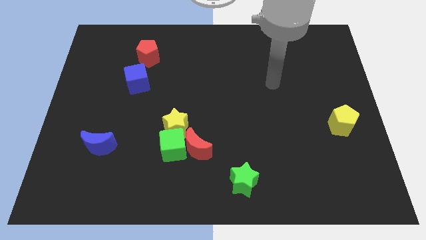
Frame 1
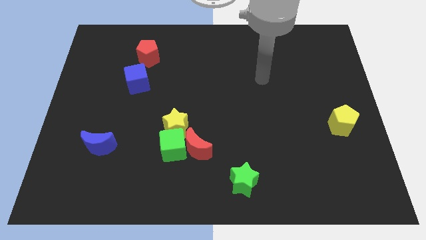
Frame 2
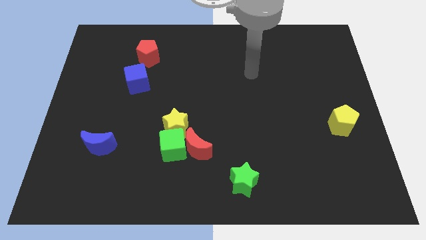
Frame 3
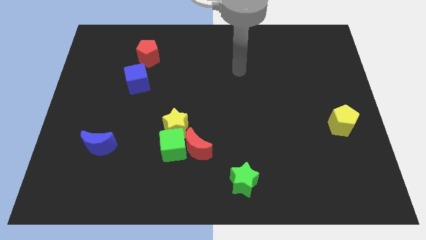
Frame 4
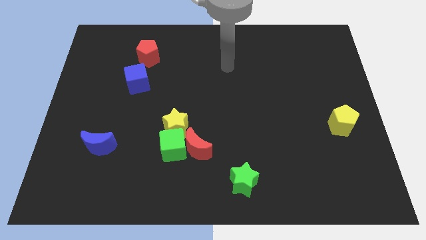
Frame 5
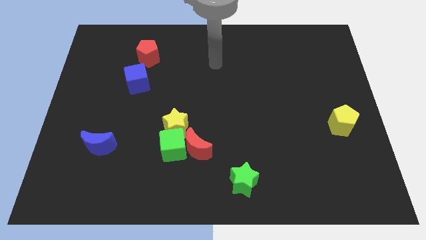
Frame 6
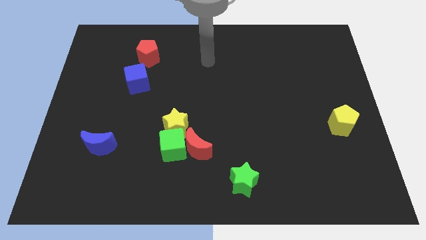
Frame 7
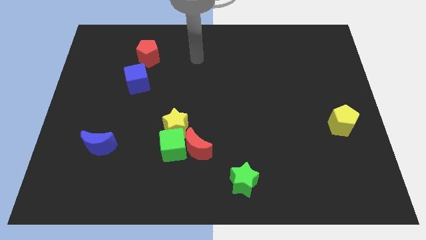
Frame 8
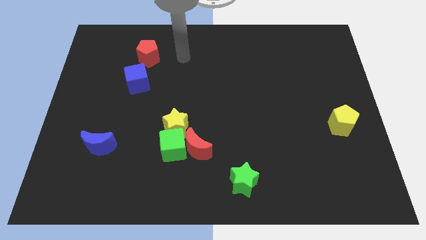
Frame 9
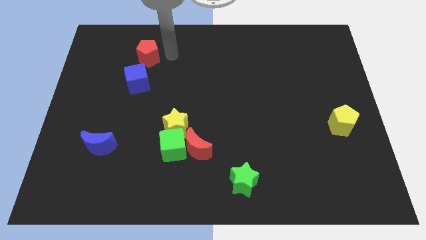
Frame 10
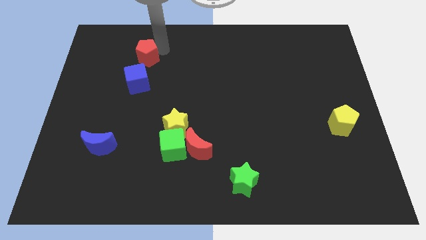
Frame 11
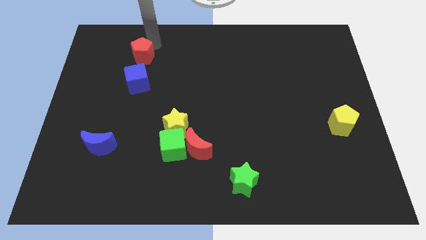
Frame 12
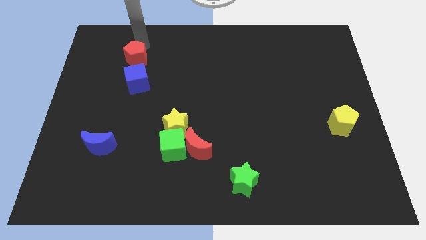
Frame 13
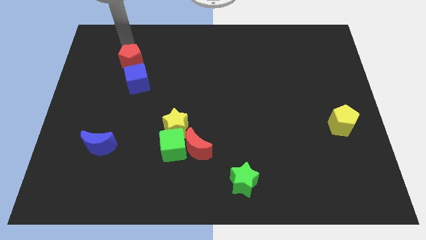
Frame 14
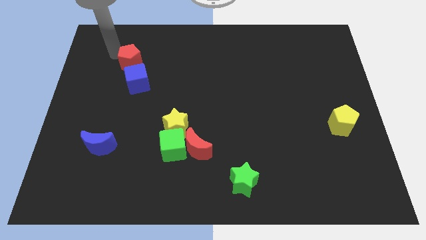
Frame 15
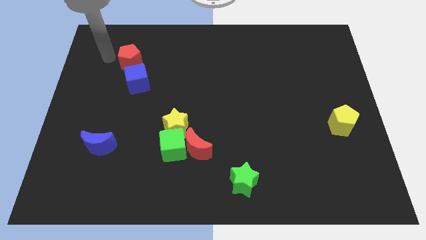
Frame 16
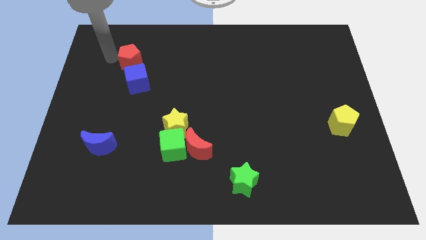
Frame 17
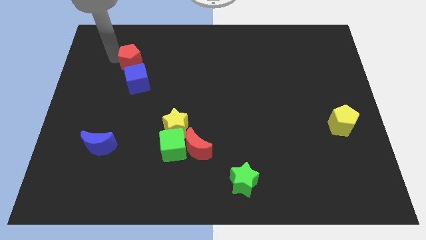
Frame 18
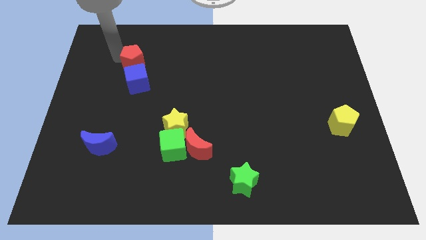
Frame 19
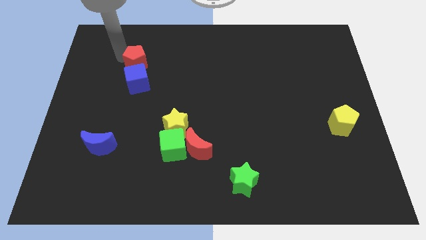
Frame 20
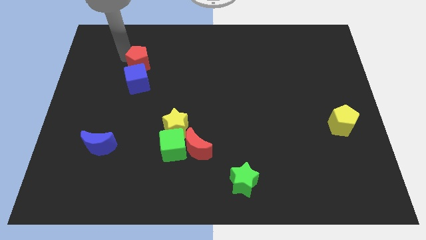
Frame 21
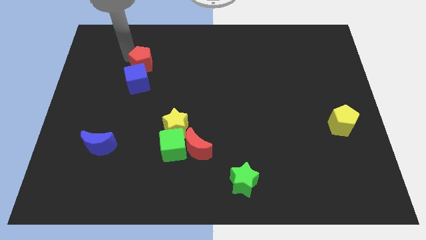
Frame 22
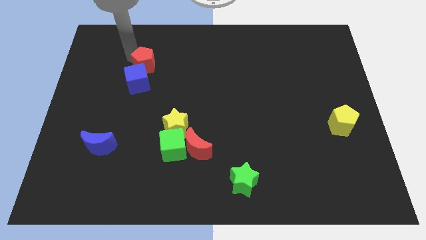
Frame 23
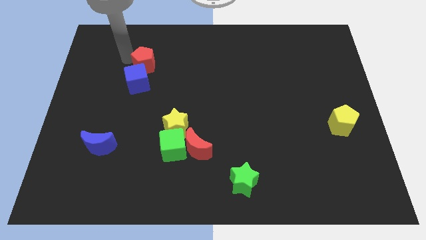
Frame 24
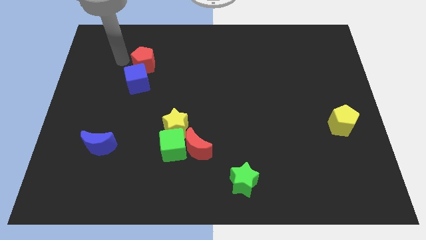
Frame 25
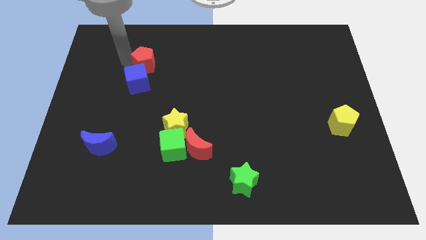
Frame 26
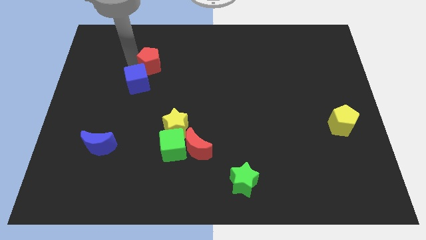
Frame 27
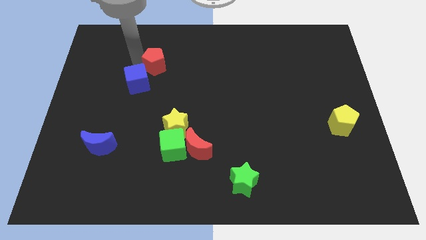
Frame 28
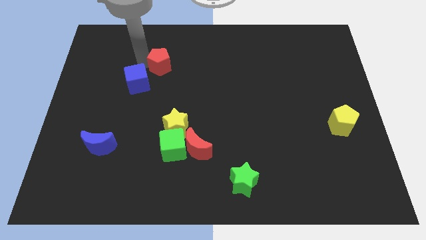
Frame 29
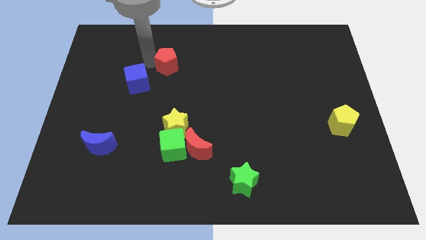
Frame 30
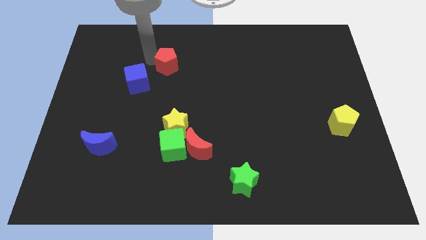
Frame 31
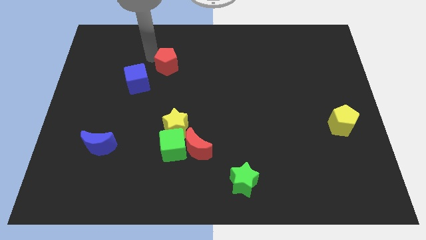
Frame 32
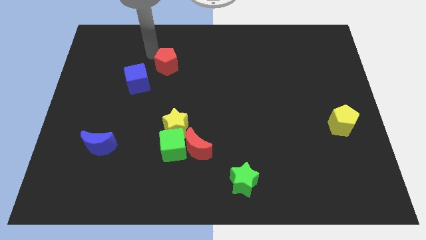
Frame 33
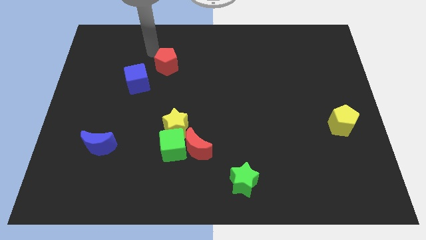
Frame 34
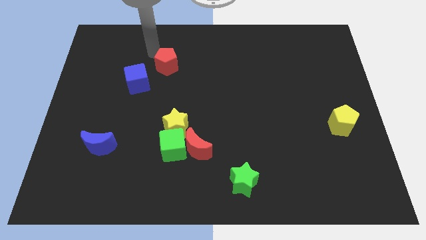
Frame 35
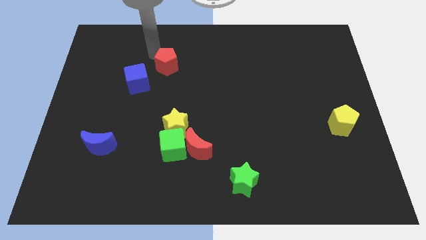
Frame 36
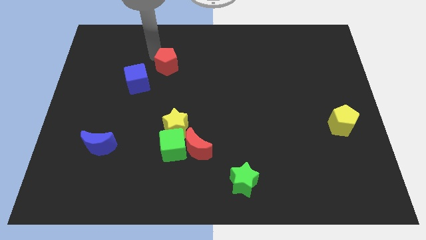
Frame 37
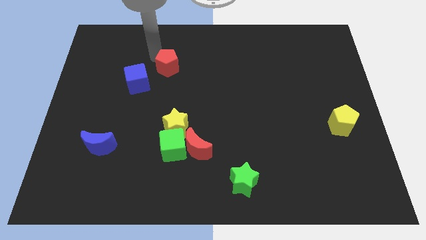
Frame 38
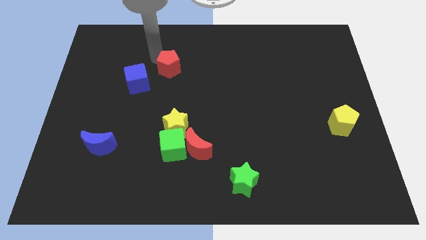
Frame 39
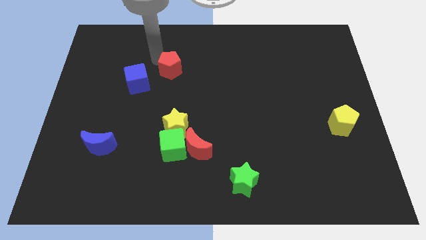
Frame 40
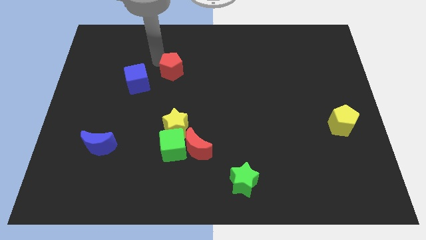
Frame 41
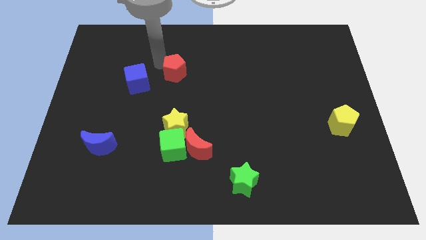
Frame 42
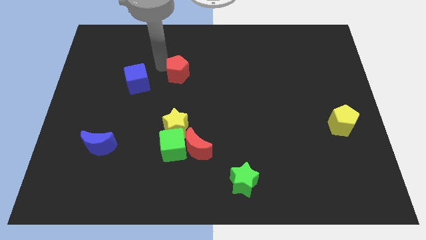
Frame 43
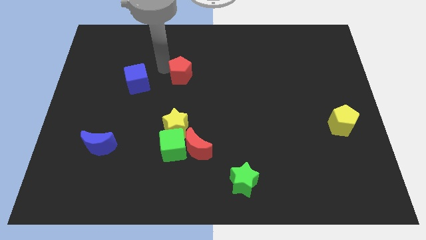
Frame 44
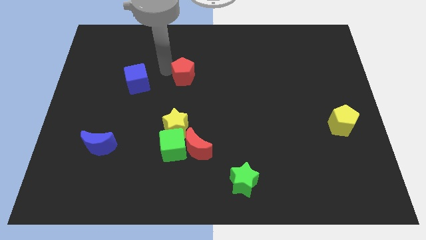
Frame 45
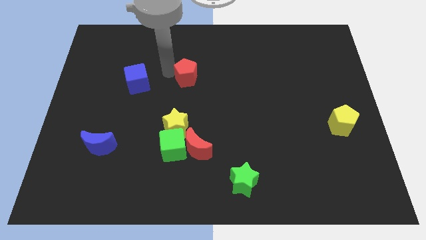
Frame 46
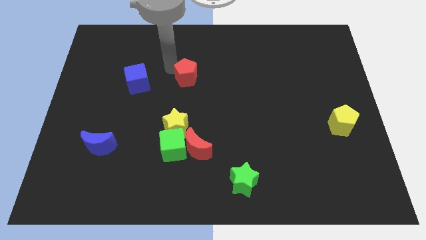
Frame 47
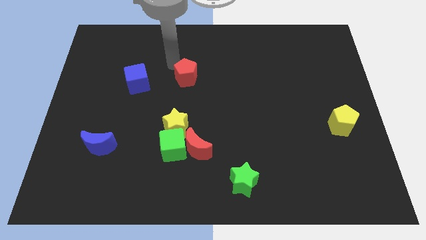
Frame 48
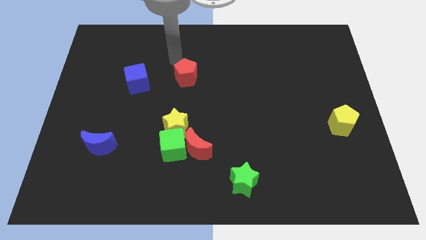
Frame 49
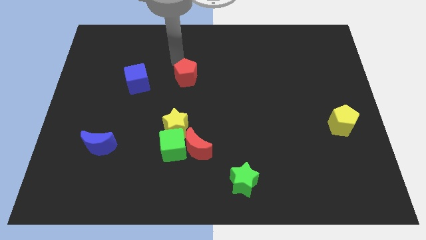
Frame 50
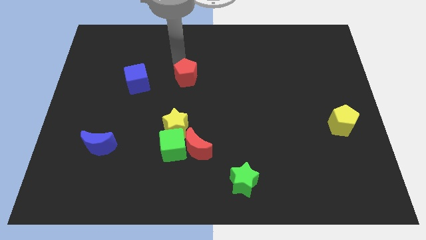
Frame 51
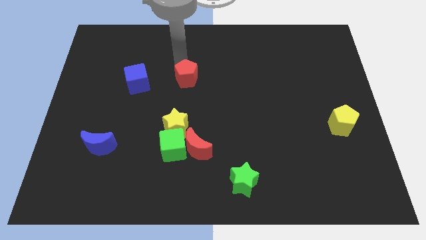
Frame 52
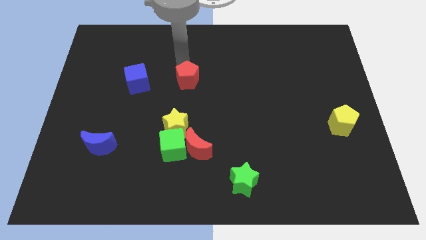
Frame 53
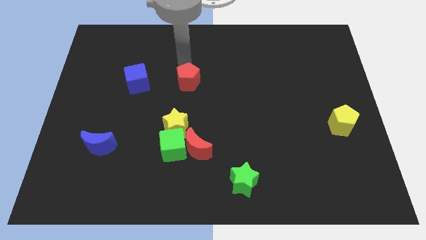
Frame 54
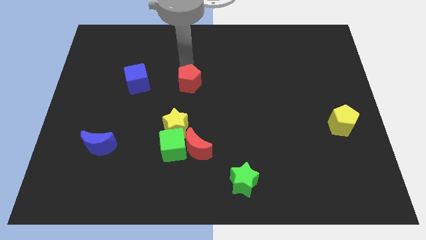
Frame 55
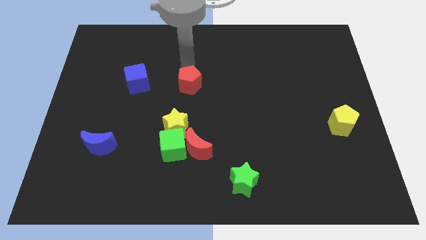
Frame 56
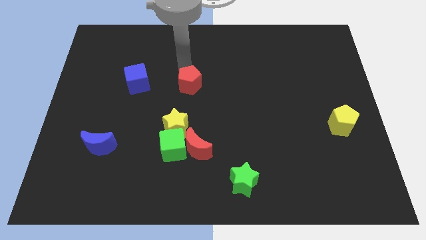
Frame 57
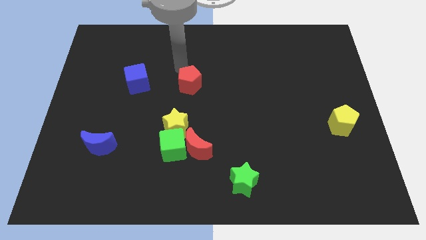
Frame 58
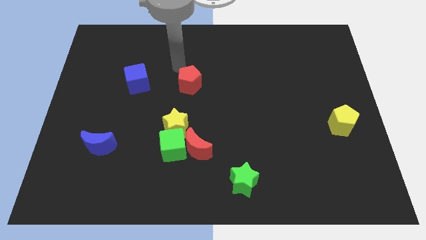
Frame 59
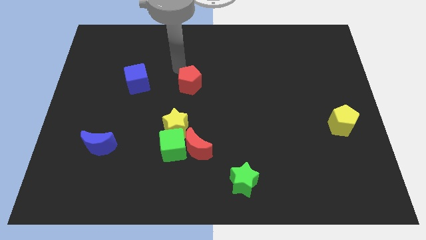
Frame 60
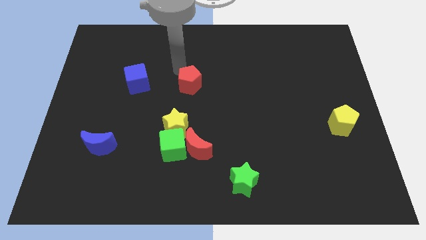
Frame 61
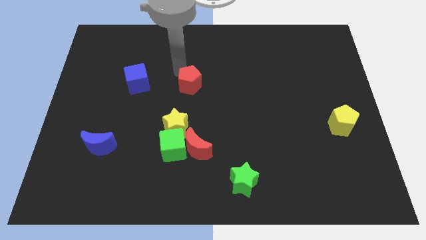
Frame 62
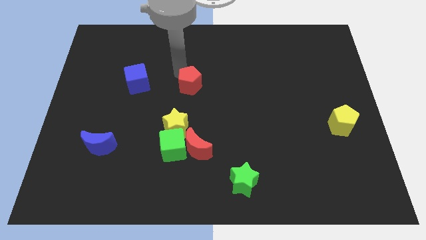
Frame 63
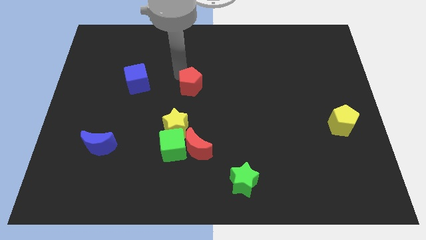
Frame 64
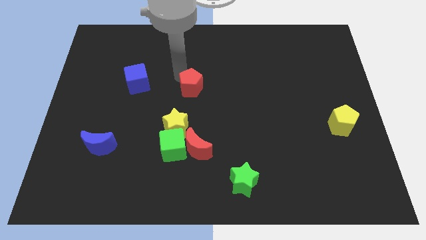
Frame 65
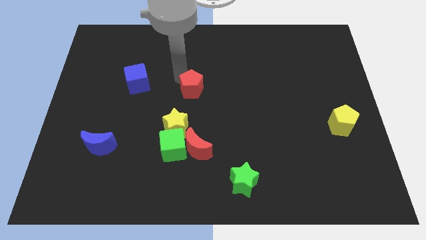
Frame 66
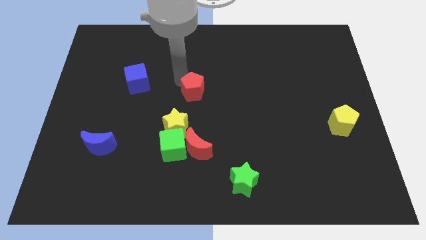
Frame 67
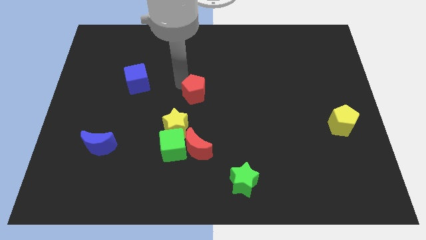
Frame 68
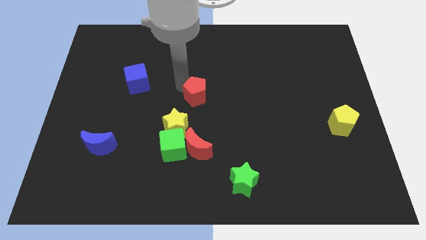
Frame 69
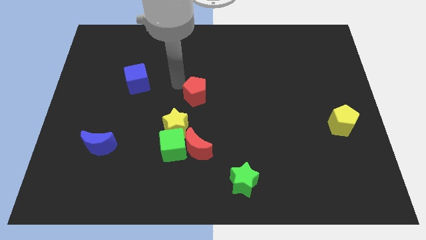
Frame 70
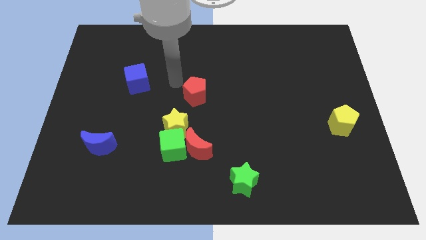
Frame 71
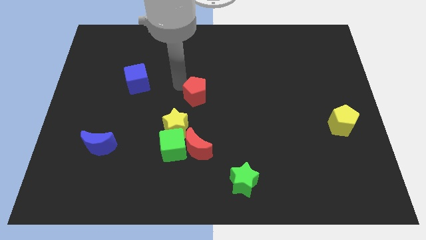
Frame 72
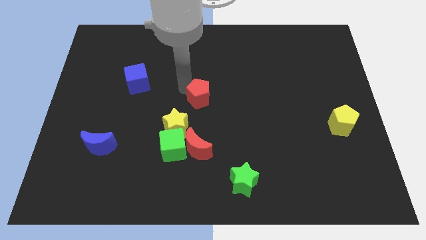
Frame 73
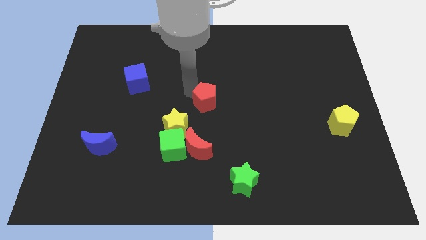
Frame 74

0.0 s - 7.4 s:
move the red pentagon down and then to the right

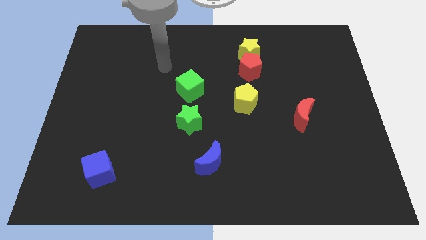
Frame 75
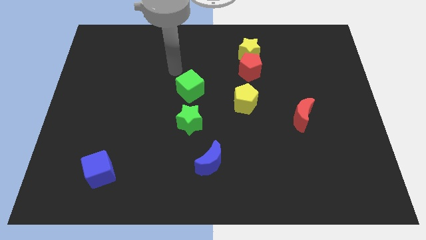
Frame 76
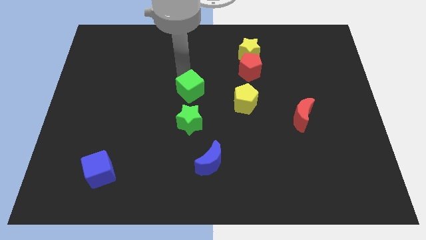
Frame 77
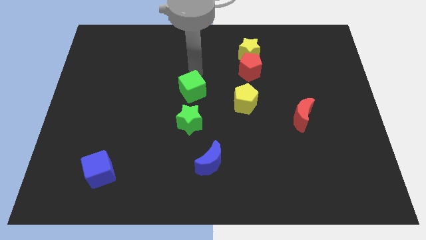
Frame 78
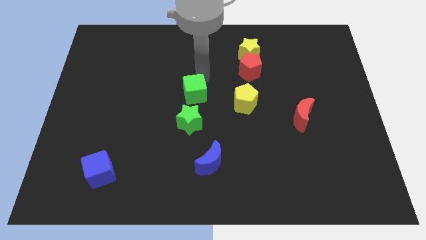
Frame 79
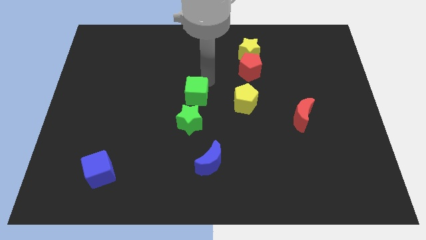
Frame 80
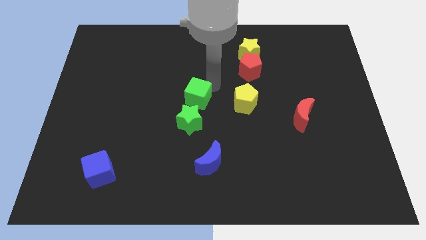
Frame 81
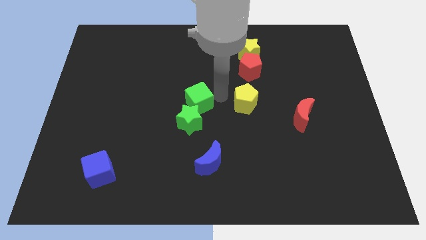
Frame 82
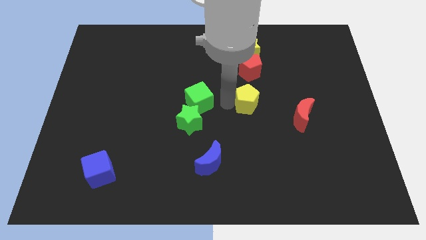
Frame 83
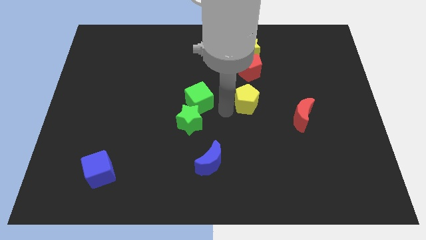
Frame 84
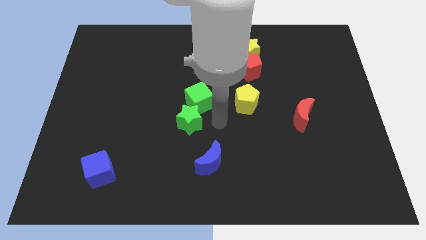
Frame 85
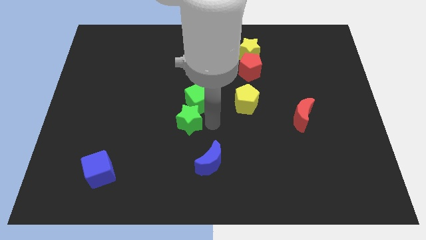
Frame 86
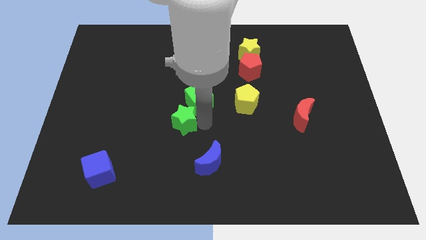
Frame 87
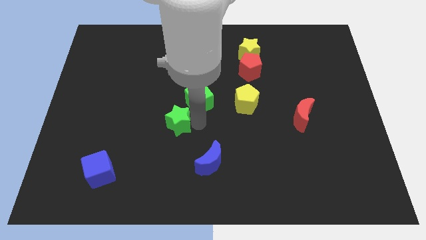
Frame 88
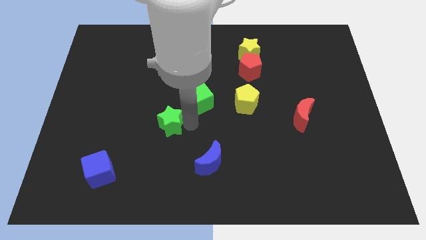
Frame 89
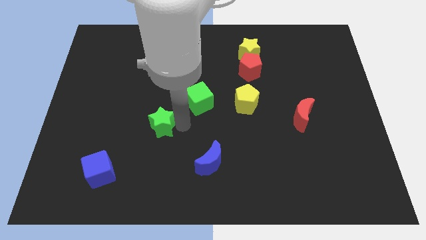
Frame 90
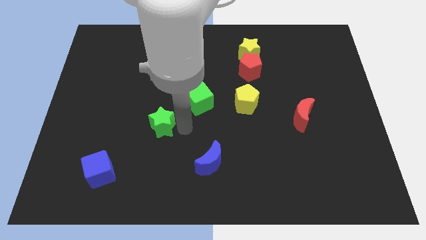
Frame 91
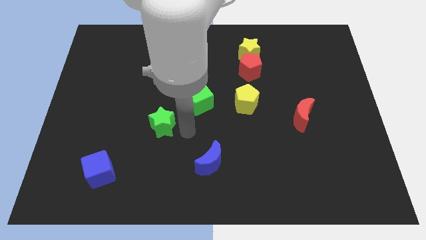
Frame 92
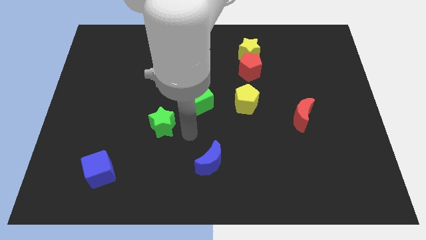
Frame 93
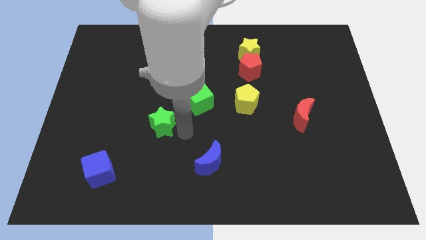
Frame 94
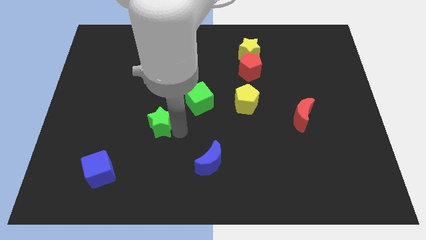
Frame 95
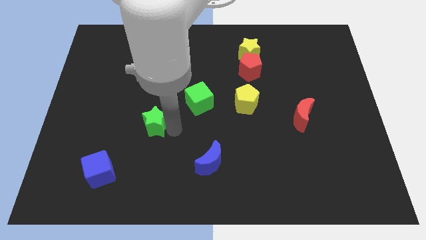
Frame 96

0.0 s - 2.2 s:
push the green star to the left a little bit
